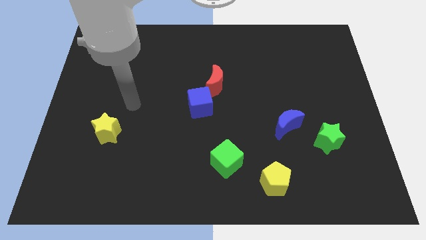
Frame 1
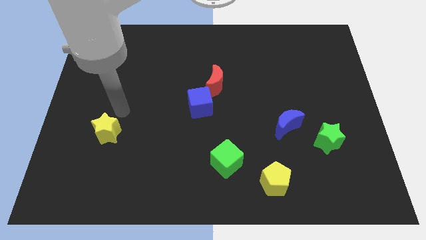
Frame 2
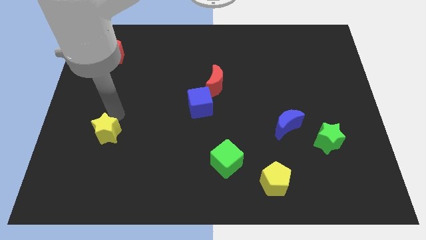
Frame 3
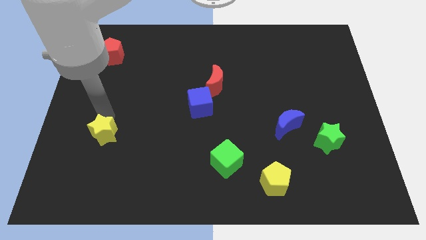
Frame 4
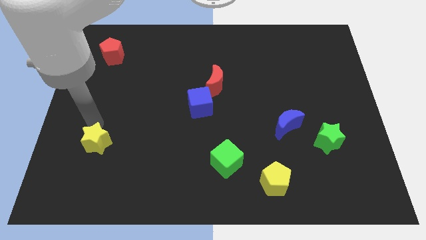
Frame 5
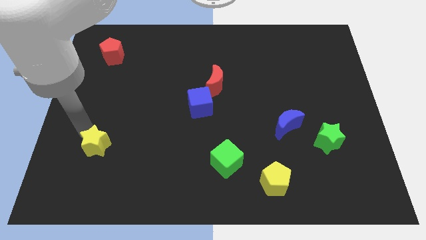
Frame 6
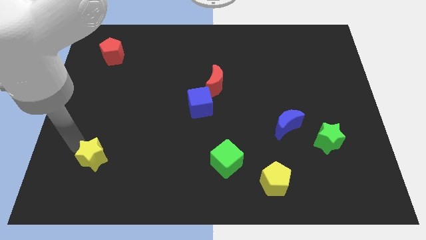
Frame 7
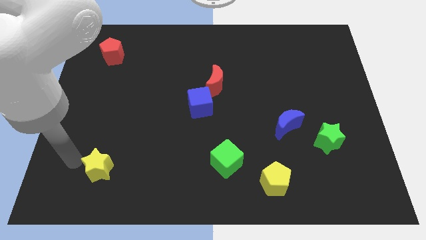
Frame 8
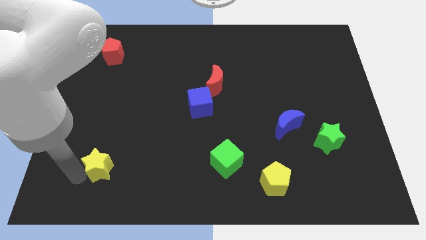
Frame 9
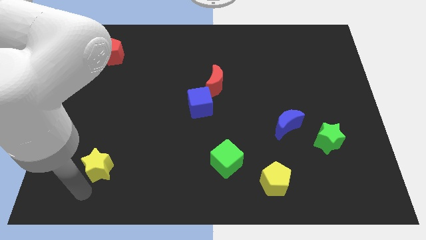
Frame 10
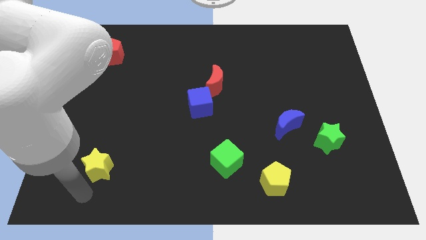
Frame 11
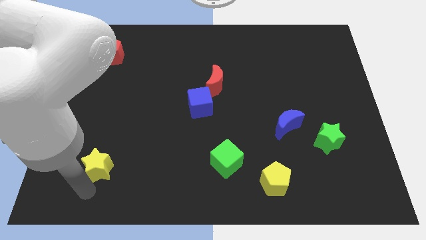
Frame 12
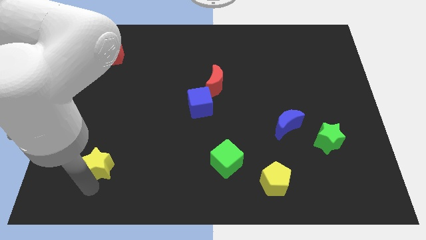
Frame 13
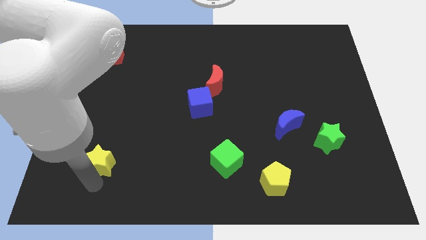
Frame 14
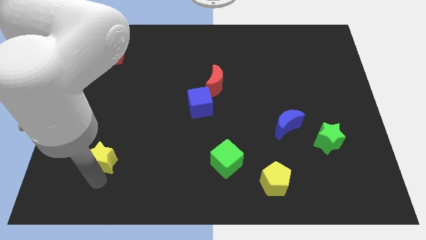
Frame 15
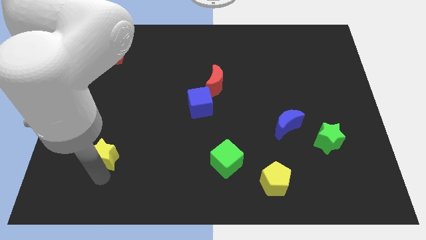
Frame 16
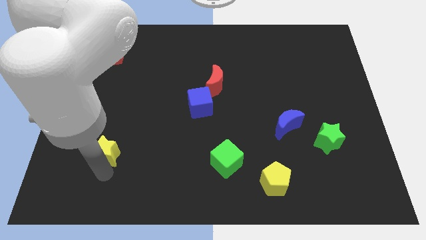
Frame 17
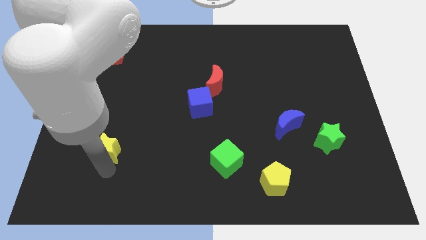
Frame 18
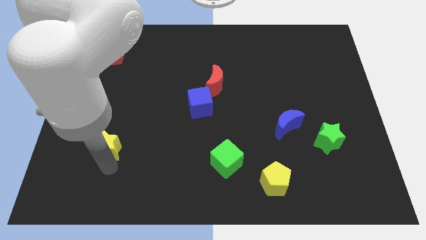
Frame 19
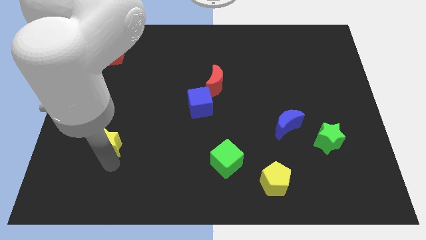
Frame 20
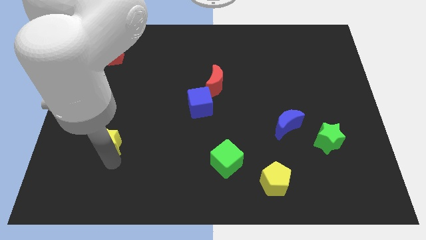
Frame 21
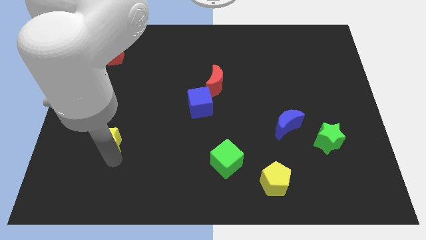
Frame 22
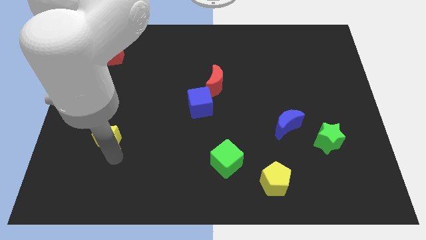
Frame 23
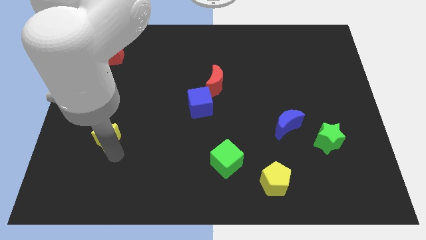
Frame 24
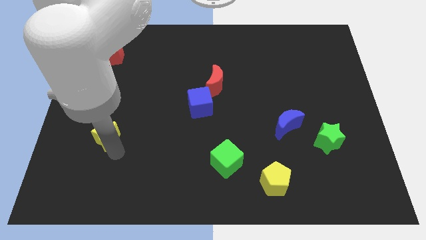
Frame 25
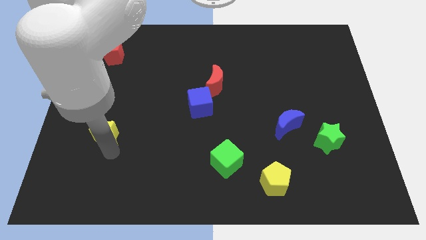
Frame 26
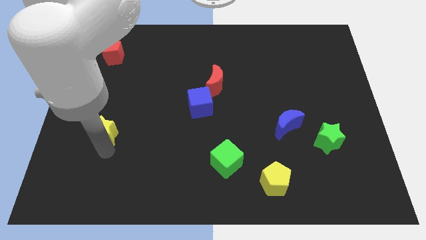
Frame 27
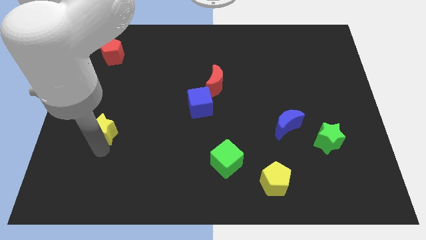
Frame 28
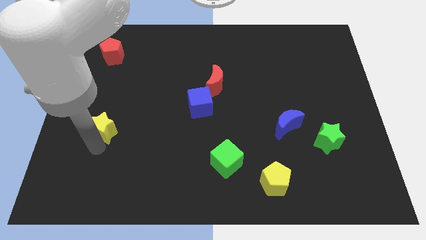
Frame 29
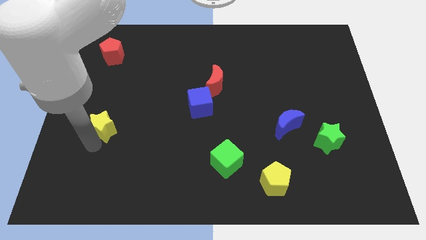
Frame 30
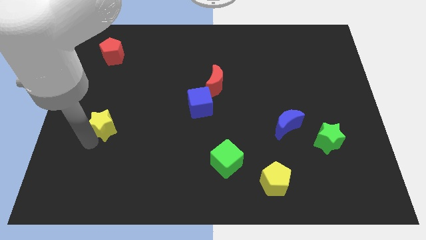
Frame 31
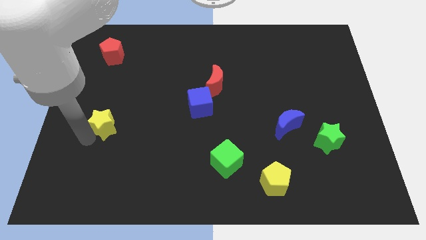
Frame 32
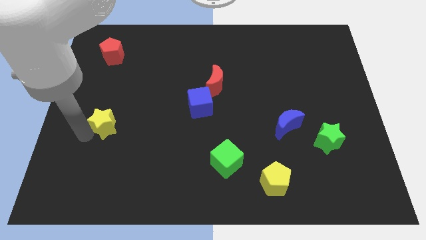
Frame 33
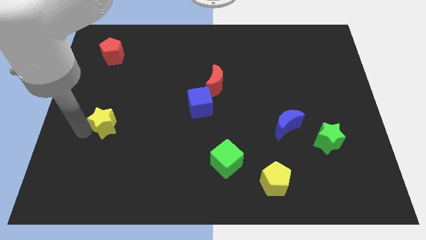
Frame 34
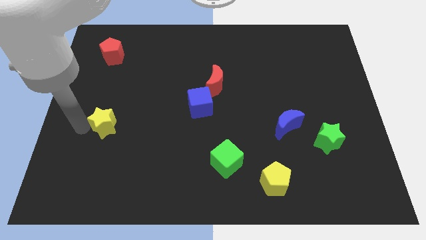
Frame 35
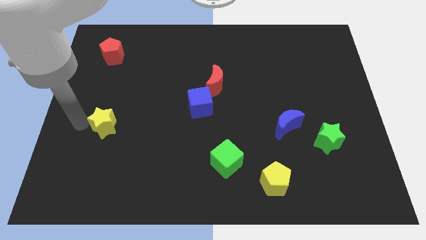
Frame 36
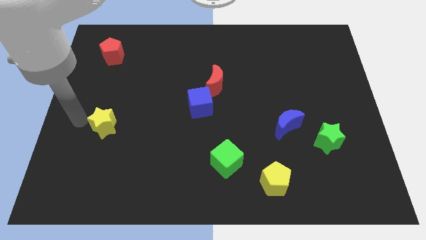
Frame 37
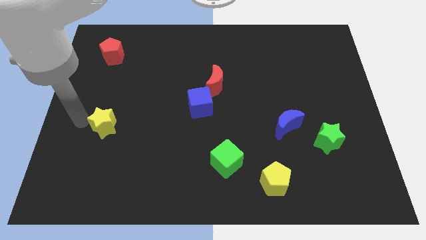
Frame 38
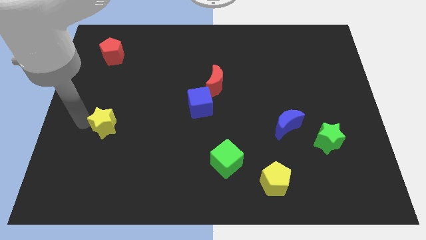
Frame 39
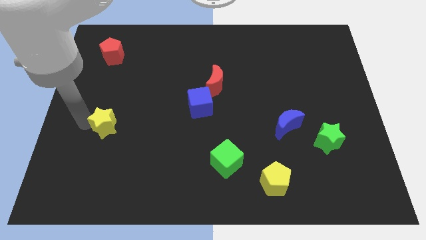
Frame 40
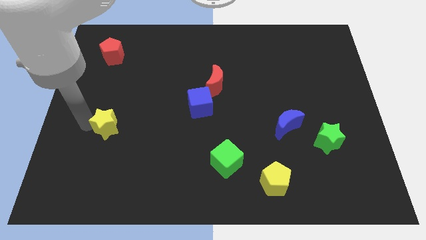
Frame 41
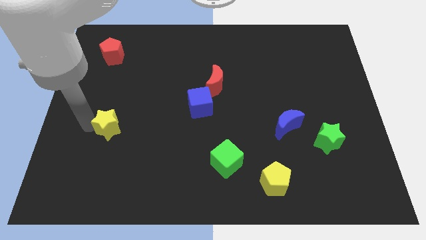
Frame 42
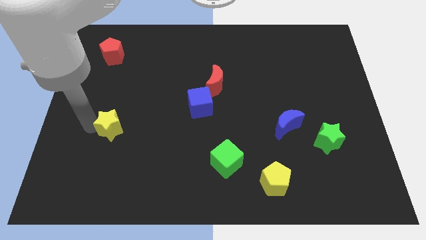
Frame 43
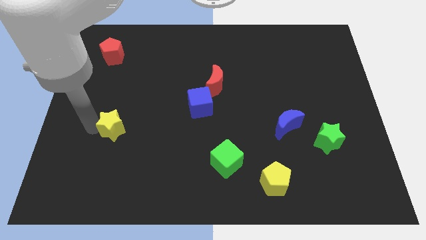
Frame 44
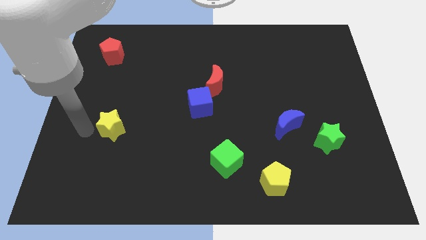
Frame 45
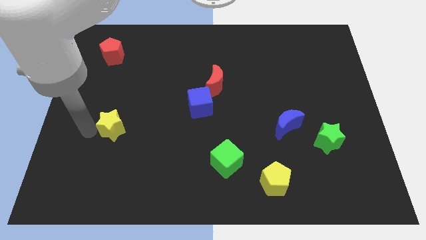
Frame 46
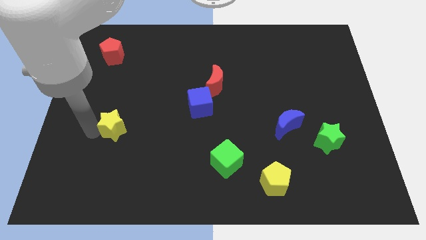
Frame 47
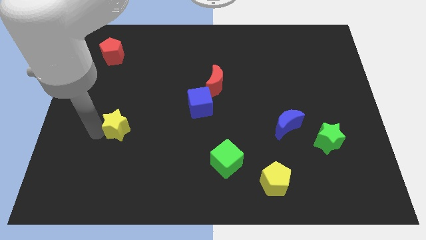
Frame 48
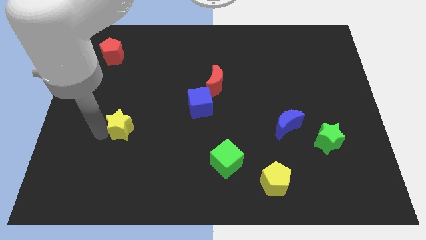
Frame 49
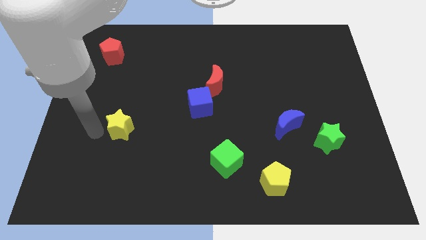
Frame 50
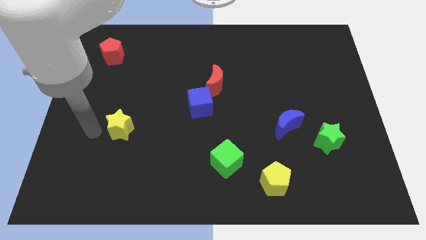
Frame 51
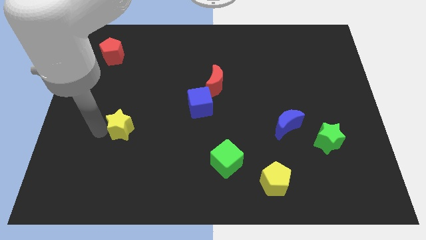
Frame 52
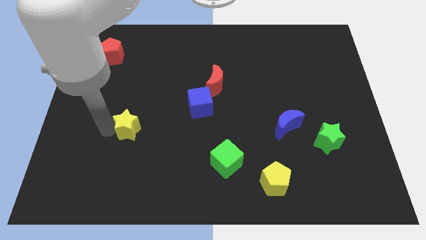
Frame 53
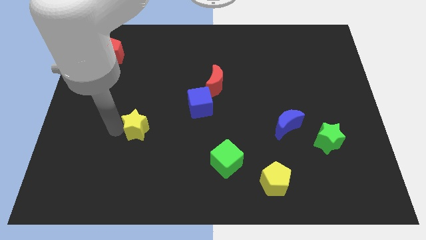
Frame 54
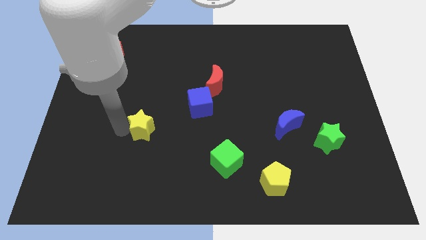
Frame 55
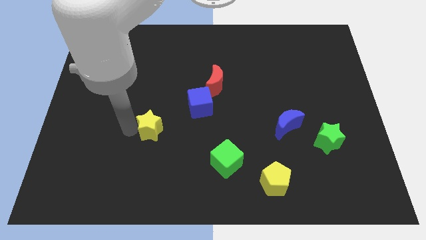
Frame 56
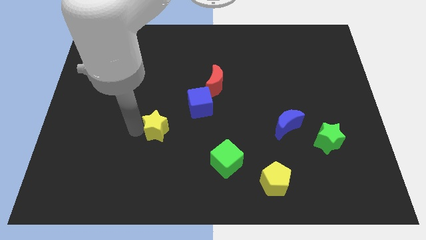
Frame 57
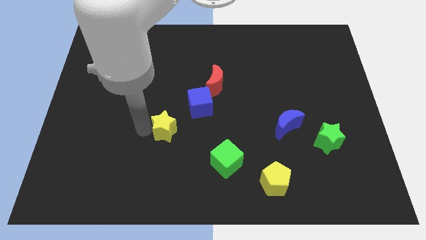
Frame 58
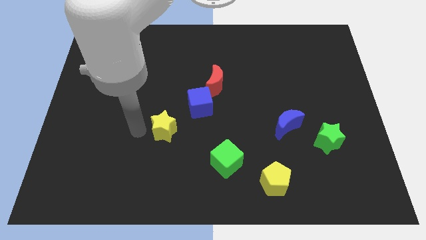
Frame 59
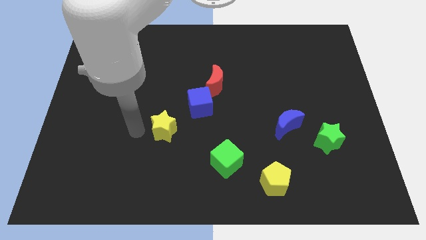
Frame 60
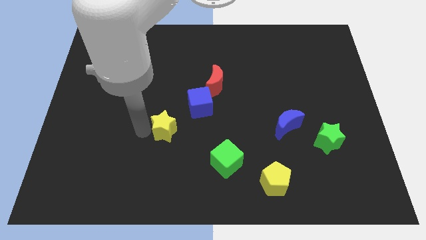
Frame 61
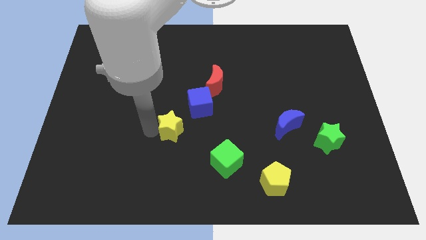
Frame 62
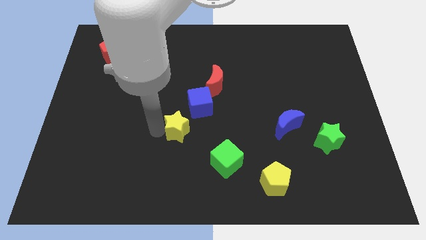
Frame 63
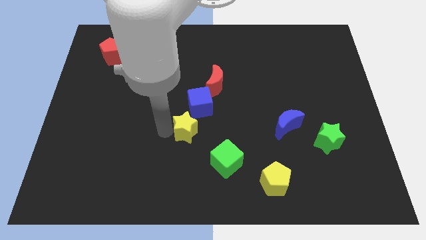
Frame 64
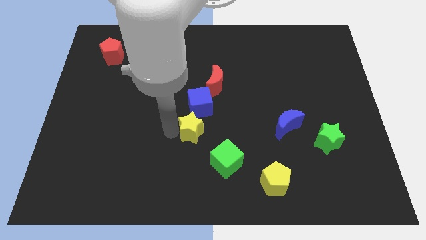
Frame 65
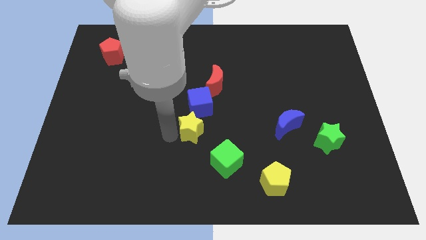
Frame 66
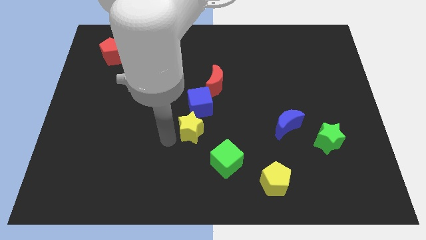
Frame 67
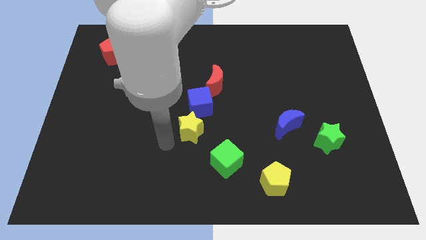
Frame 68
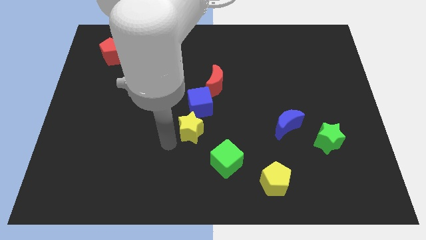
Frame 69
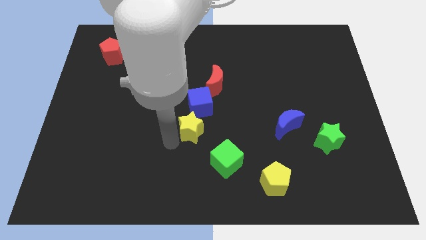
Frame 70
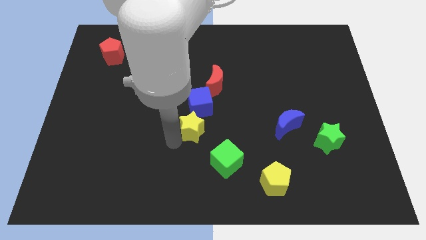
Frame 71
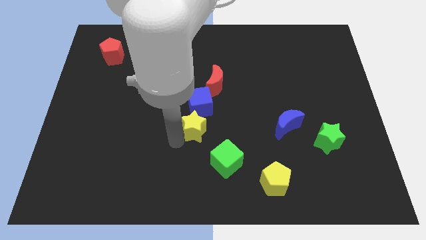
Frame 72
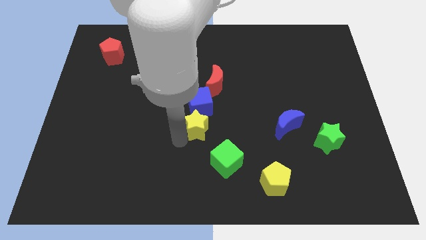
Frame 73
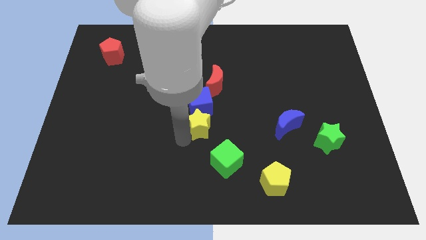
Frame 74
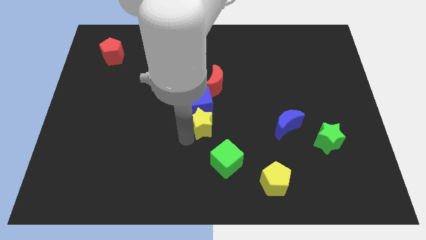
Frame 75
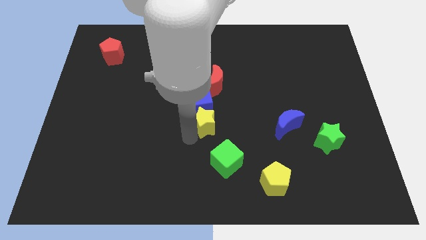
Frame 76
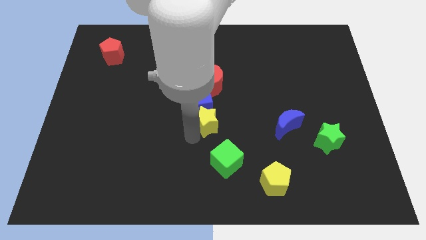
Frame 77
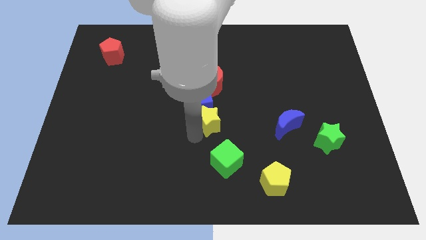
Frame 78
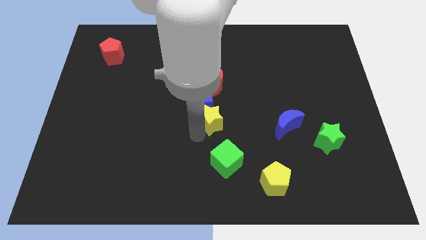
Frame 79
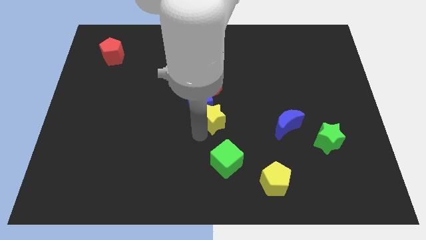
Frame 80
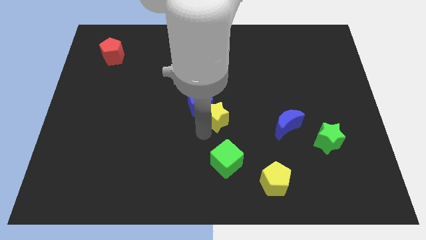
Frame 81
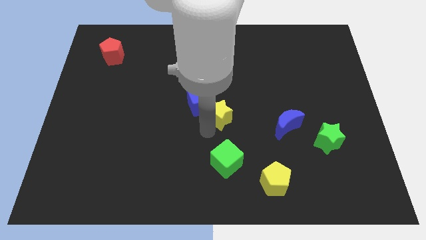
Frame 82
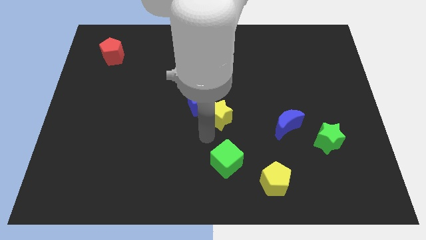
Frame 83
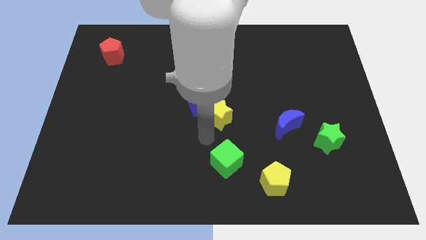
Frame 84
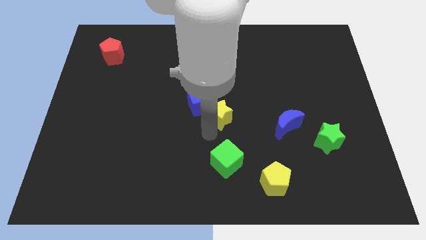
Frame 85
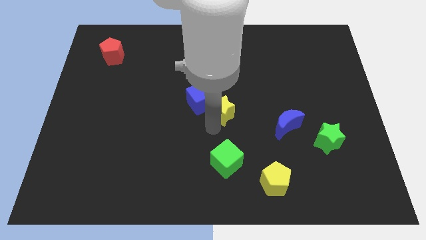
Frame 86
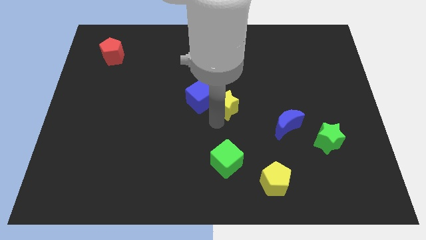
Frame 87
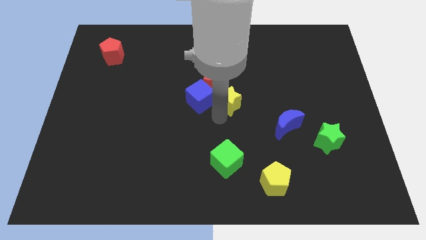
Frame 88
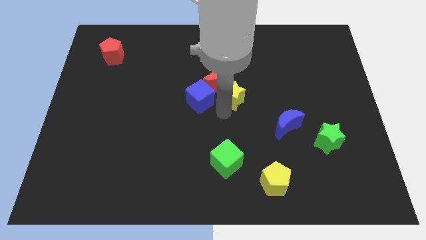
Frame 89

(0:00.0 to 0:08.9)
push the yellow star to the top right of the blue cube
